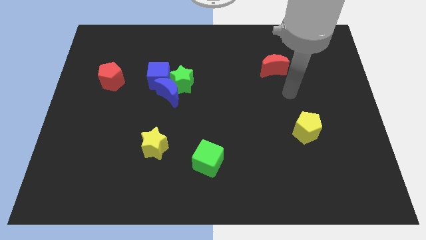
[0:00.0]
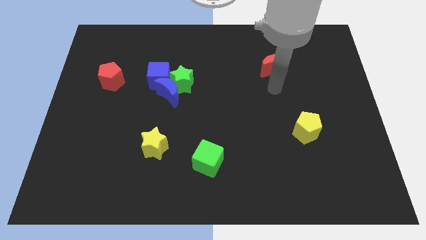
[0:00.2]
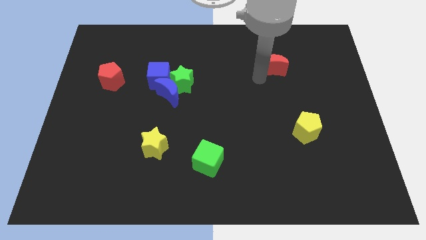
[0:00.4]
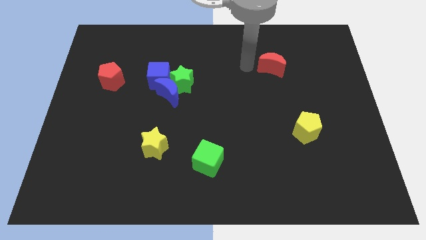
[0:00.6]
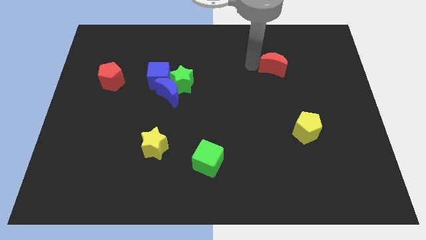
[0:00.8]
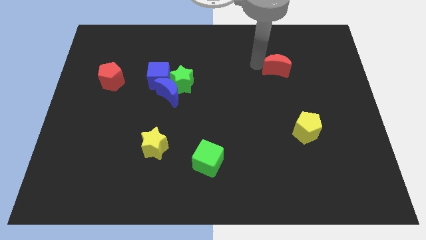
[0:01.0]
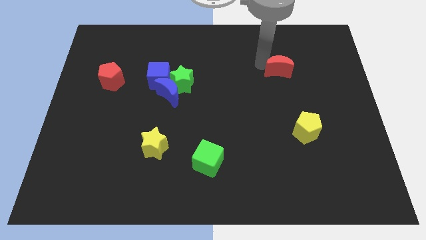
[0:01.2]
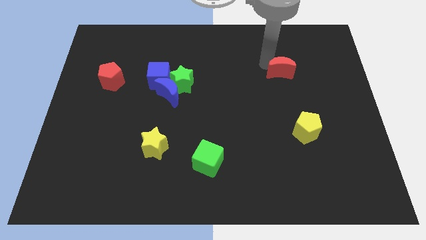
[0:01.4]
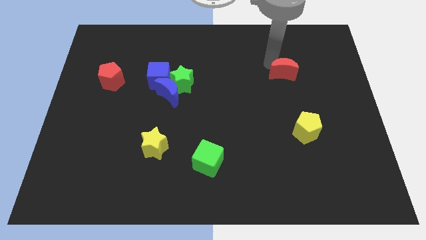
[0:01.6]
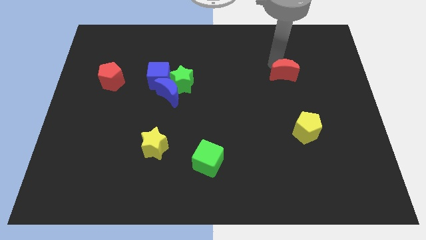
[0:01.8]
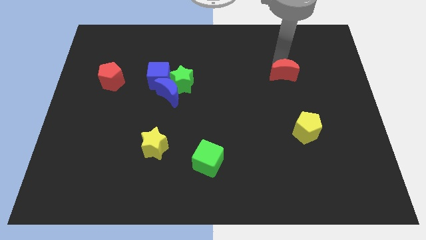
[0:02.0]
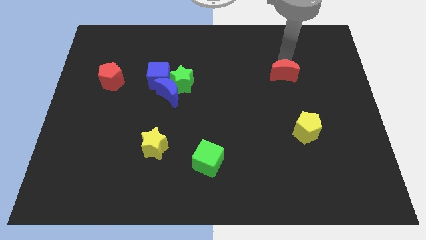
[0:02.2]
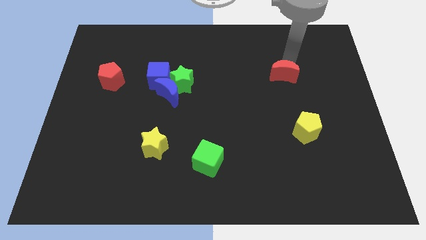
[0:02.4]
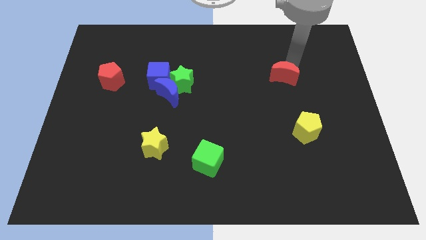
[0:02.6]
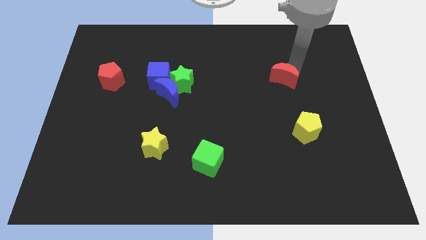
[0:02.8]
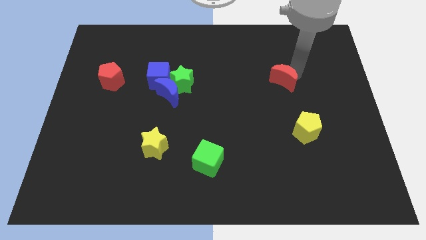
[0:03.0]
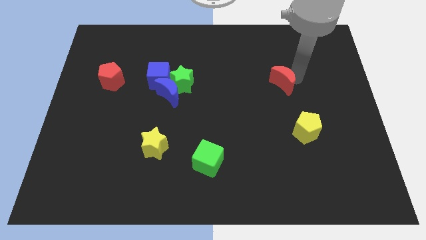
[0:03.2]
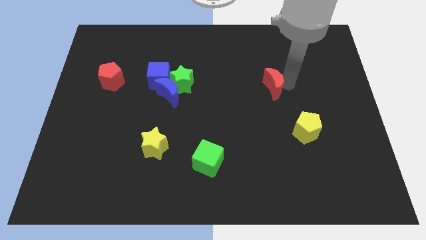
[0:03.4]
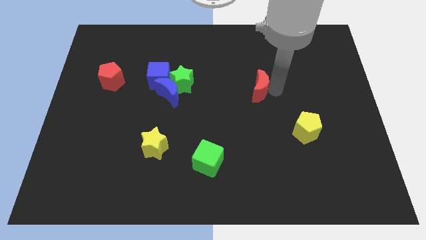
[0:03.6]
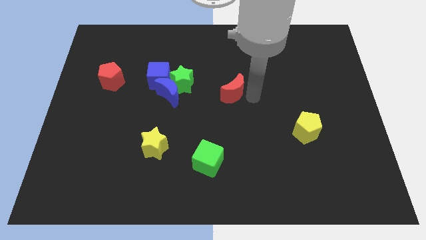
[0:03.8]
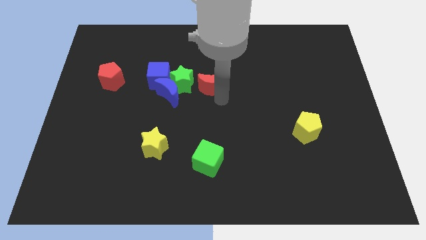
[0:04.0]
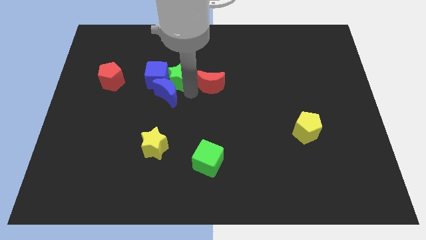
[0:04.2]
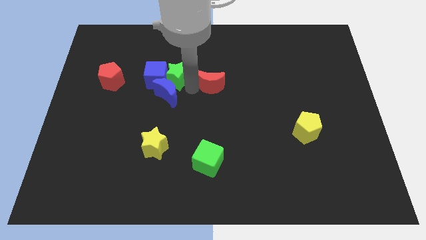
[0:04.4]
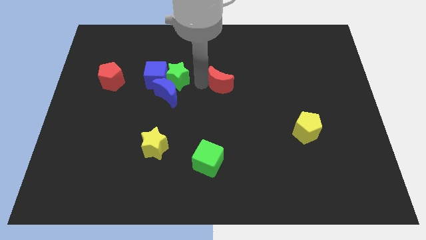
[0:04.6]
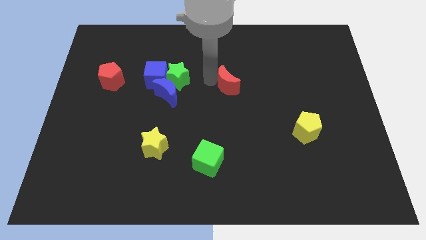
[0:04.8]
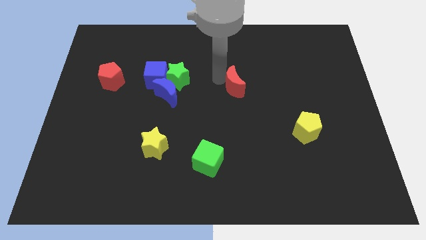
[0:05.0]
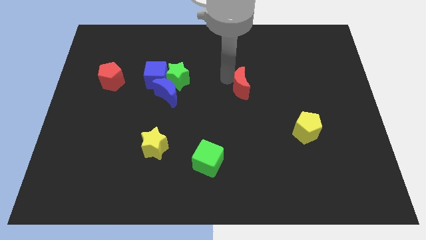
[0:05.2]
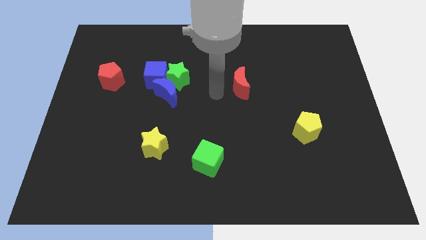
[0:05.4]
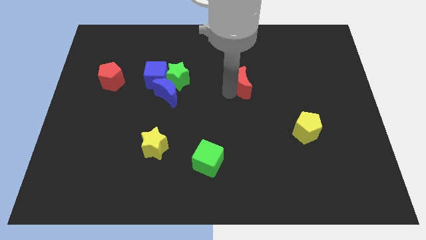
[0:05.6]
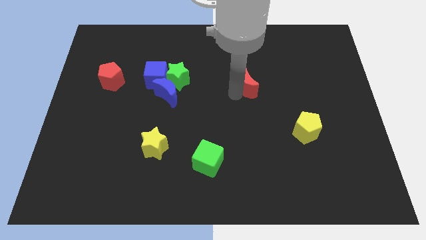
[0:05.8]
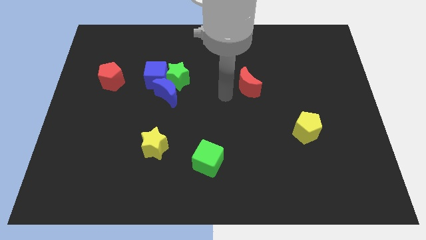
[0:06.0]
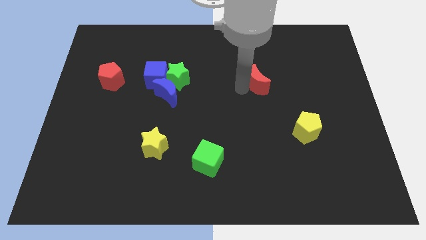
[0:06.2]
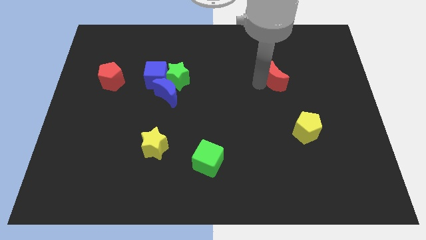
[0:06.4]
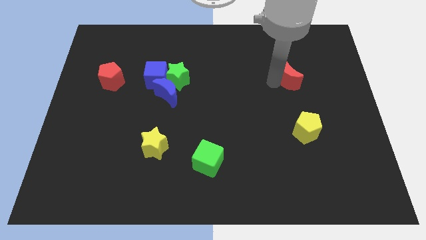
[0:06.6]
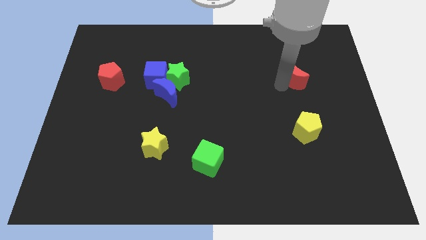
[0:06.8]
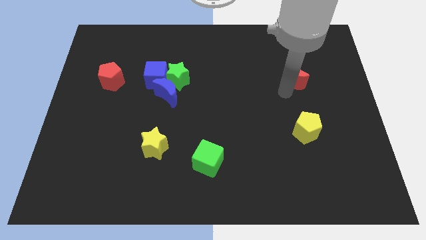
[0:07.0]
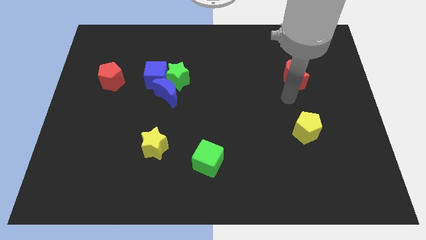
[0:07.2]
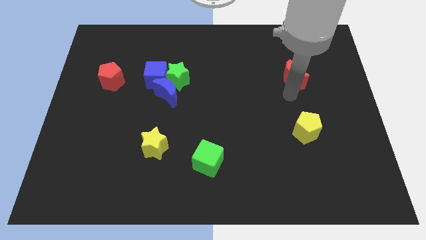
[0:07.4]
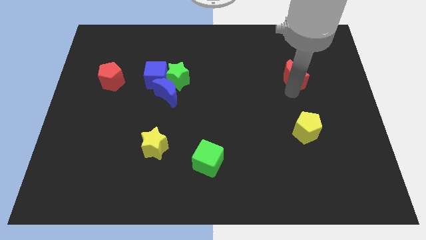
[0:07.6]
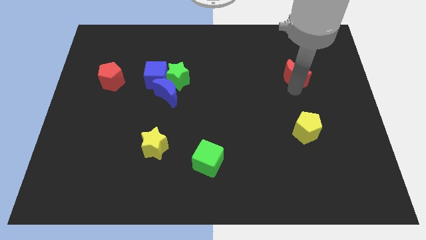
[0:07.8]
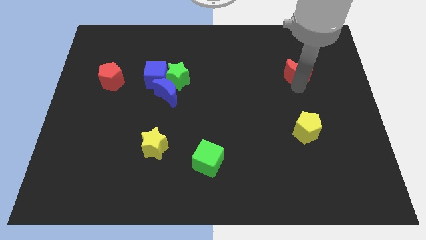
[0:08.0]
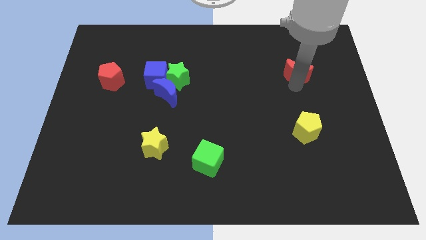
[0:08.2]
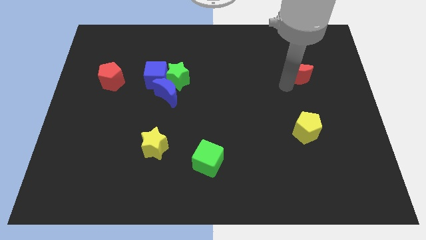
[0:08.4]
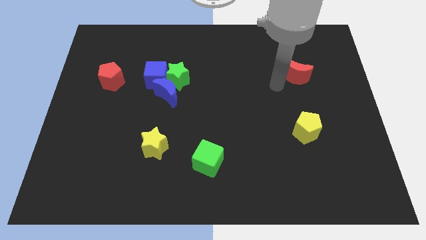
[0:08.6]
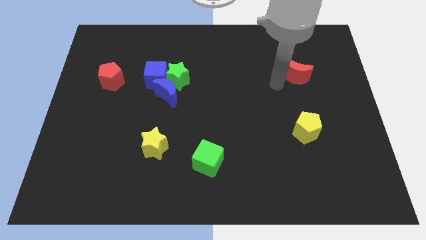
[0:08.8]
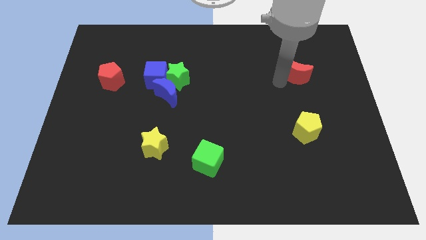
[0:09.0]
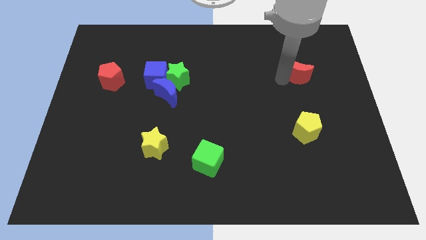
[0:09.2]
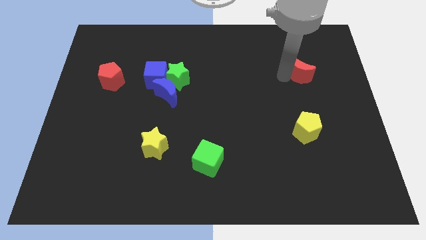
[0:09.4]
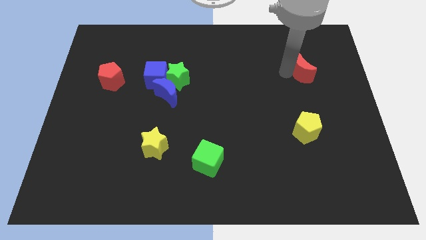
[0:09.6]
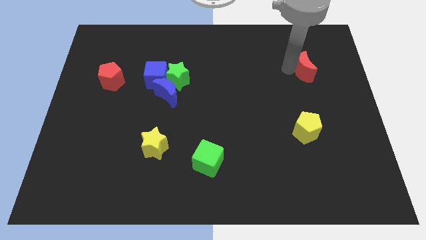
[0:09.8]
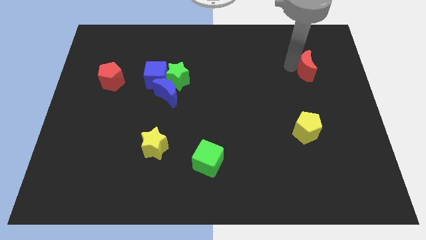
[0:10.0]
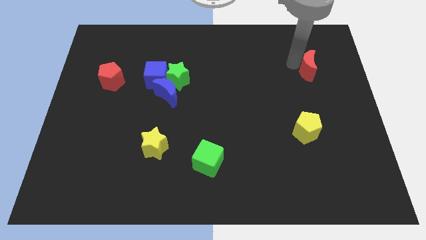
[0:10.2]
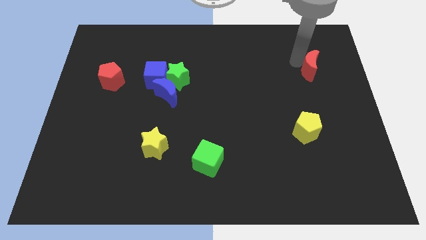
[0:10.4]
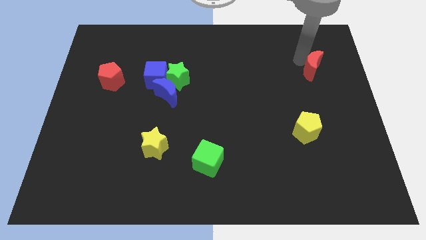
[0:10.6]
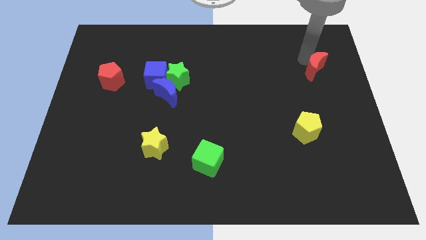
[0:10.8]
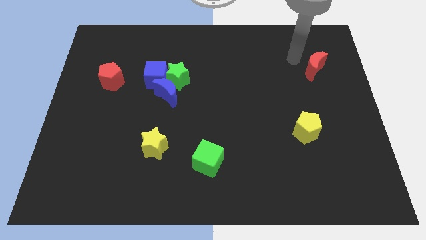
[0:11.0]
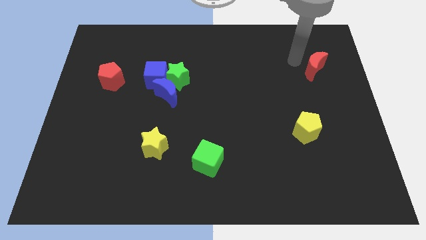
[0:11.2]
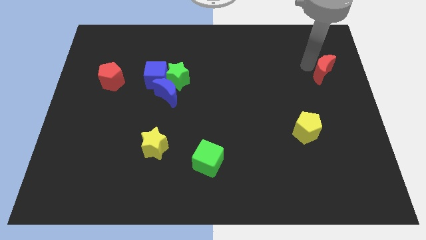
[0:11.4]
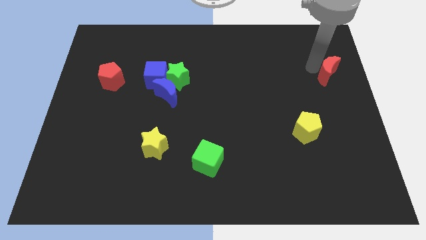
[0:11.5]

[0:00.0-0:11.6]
move the red moon to the right side of the board
